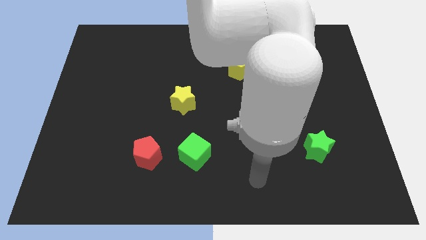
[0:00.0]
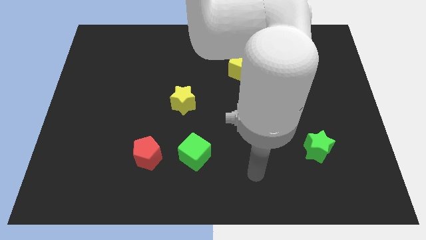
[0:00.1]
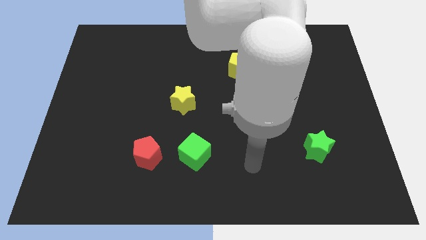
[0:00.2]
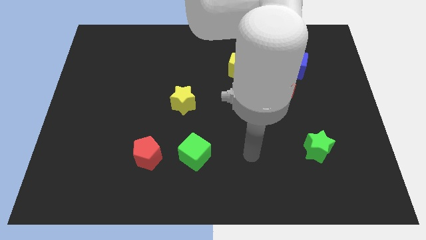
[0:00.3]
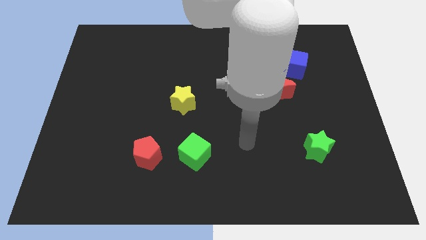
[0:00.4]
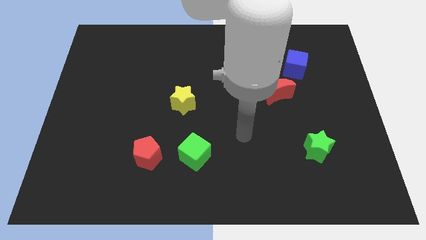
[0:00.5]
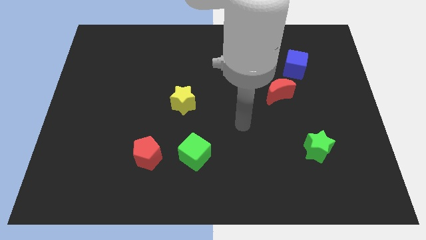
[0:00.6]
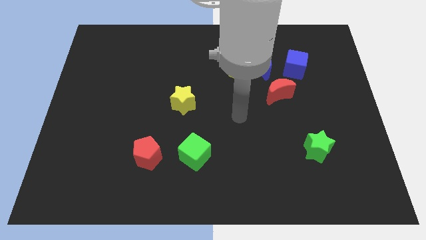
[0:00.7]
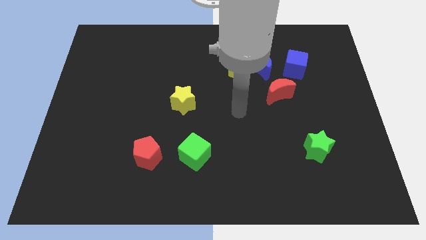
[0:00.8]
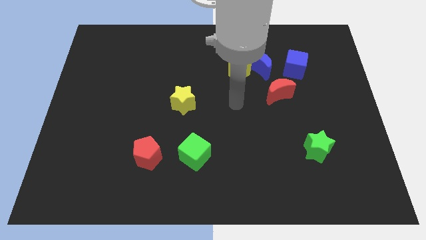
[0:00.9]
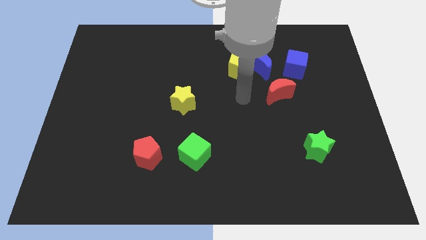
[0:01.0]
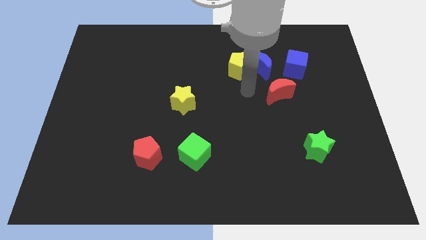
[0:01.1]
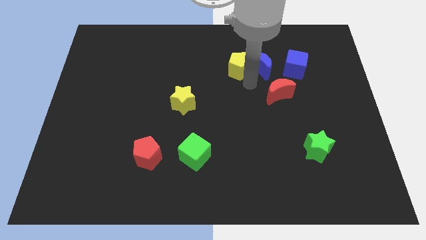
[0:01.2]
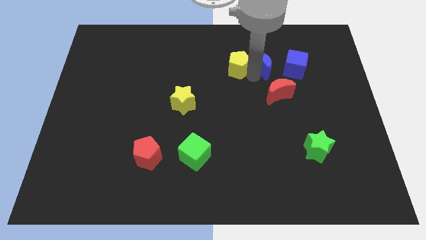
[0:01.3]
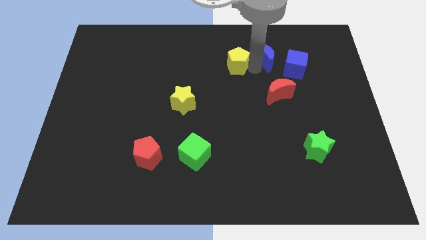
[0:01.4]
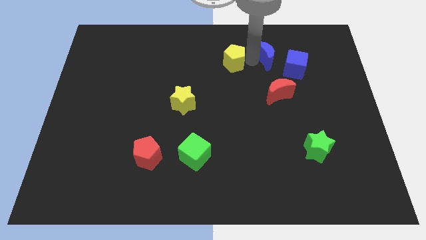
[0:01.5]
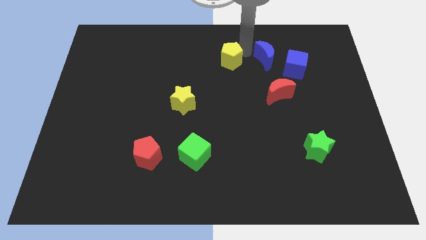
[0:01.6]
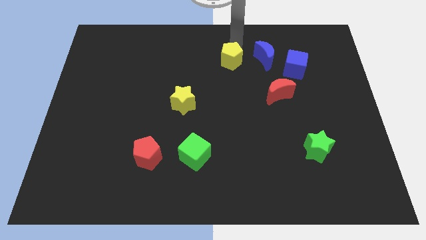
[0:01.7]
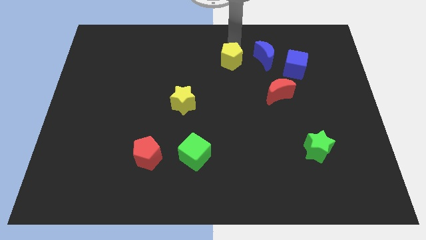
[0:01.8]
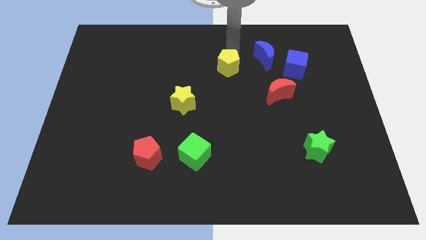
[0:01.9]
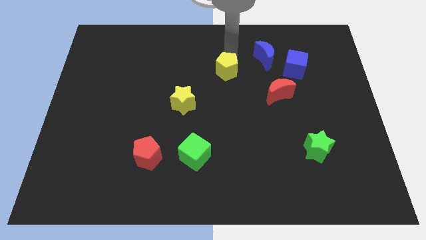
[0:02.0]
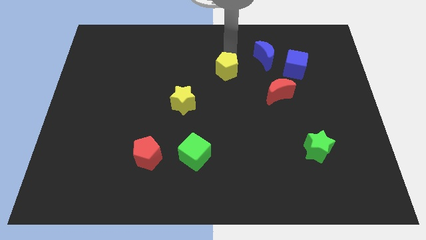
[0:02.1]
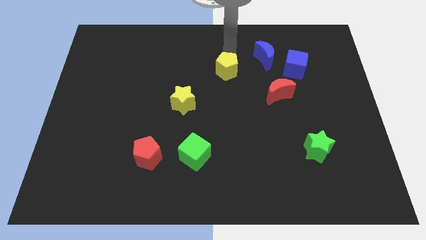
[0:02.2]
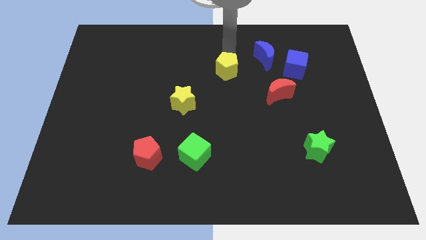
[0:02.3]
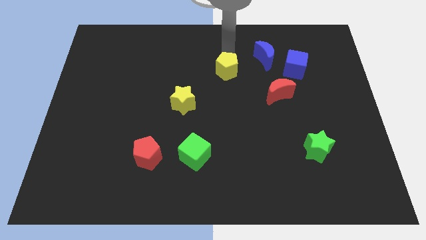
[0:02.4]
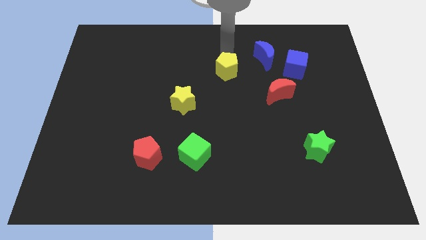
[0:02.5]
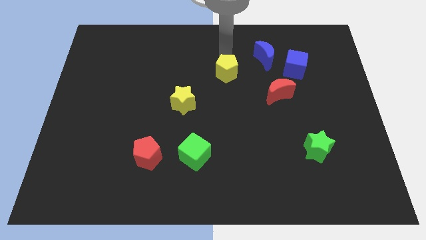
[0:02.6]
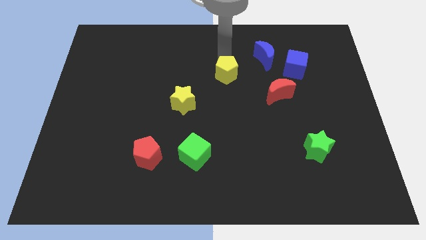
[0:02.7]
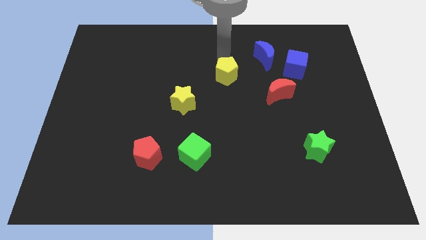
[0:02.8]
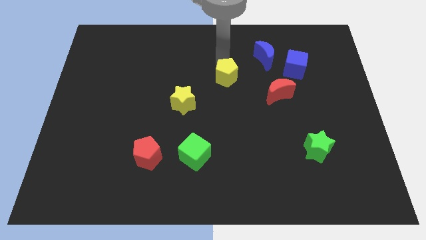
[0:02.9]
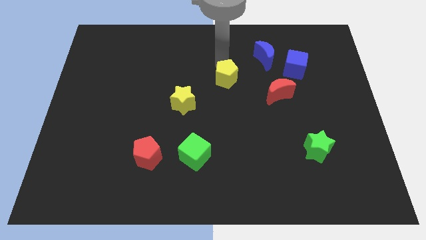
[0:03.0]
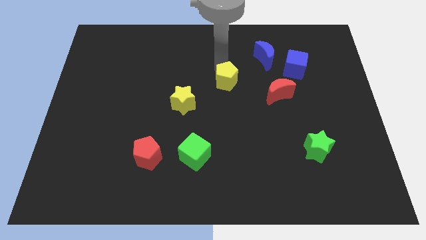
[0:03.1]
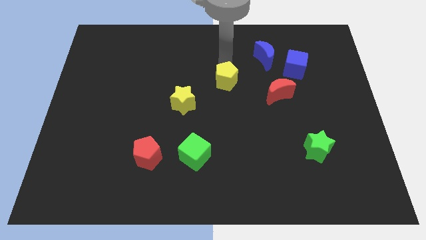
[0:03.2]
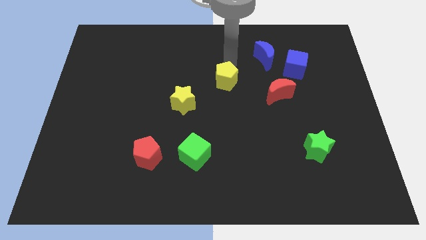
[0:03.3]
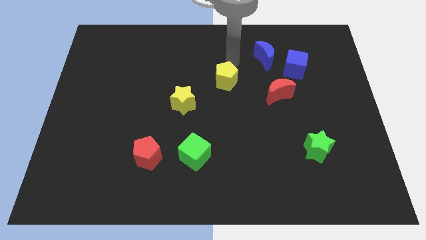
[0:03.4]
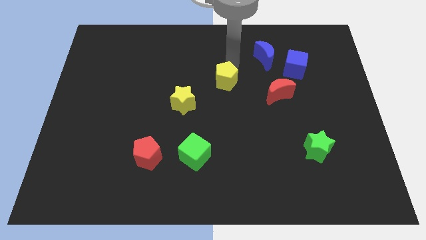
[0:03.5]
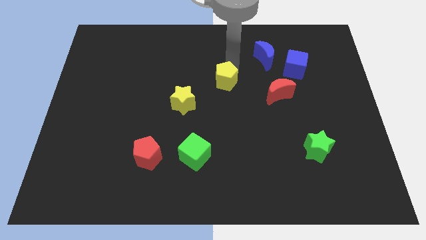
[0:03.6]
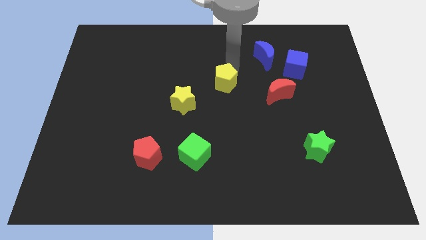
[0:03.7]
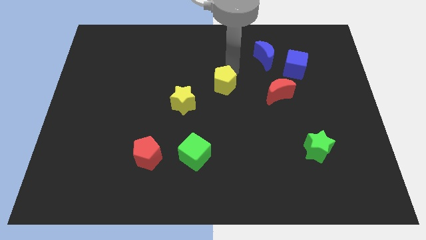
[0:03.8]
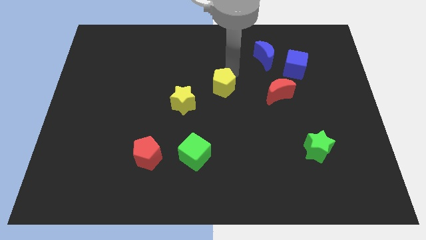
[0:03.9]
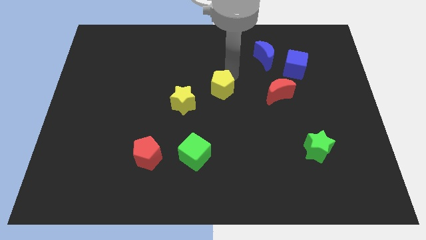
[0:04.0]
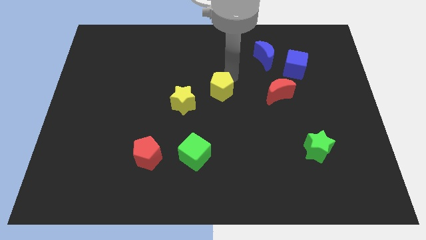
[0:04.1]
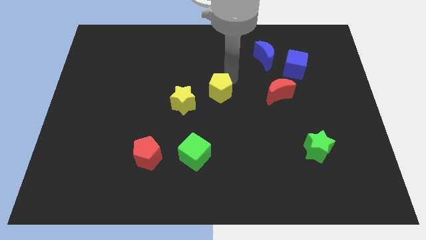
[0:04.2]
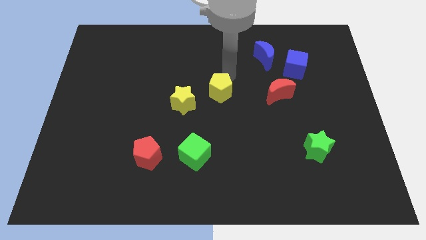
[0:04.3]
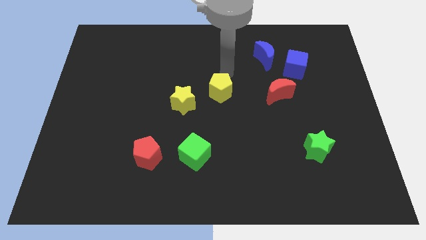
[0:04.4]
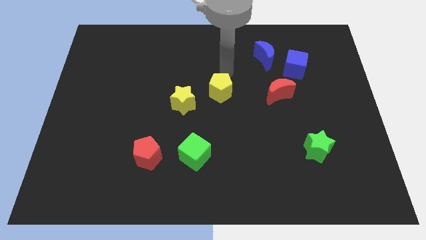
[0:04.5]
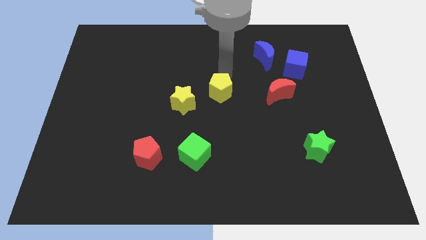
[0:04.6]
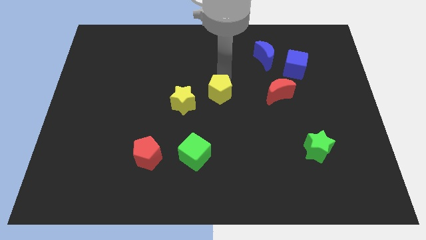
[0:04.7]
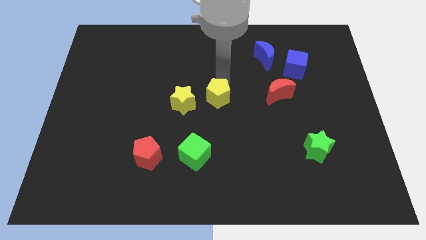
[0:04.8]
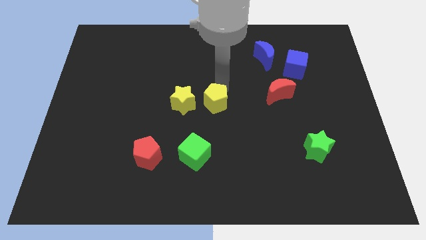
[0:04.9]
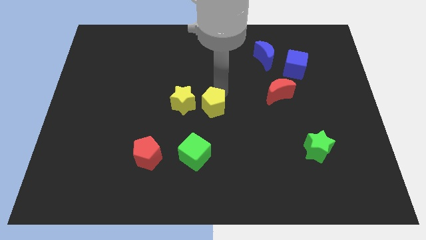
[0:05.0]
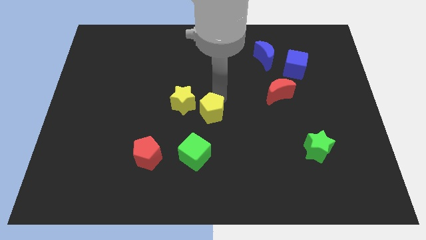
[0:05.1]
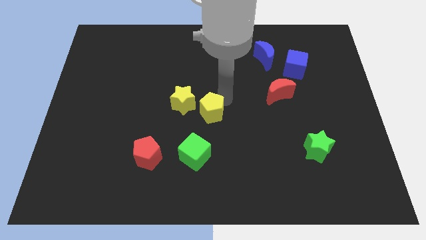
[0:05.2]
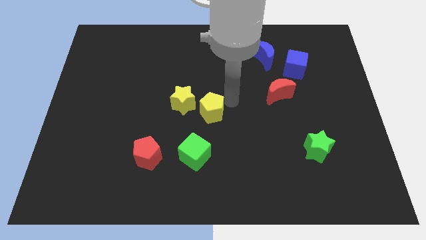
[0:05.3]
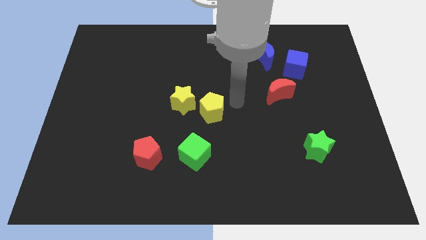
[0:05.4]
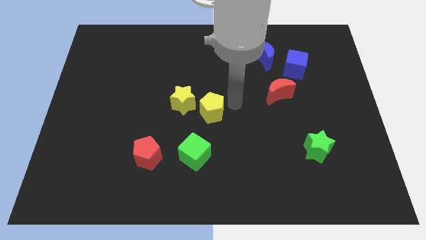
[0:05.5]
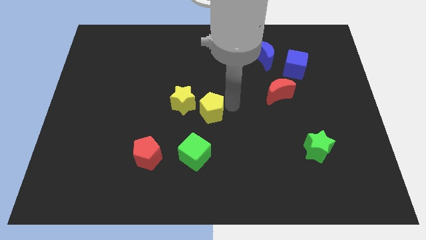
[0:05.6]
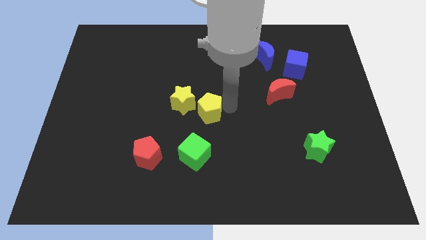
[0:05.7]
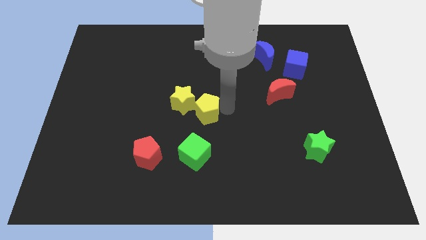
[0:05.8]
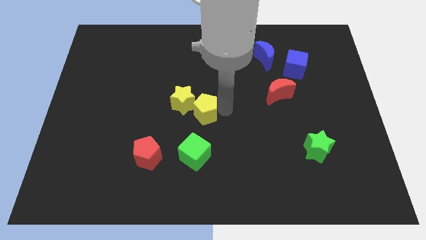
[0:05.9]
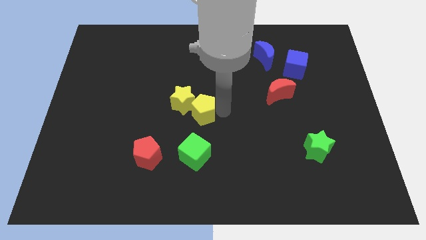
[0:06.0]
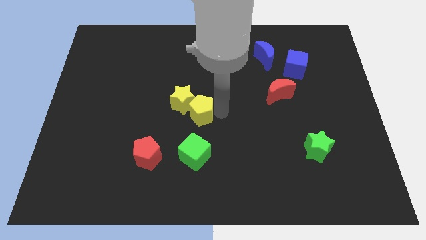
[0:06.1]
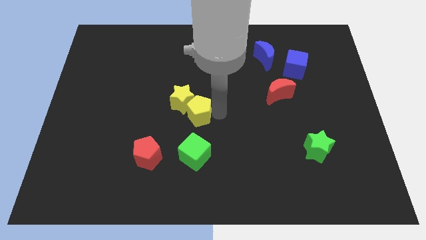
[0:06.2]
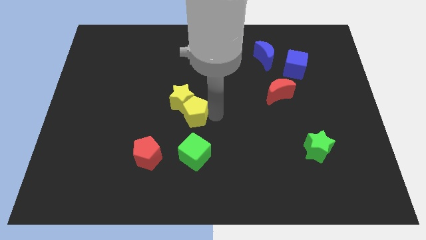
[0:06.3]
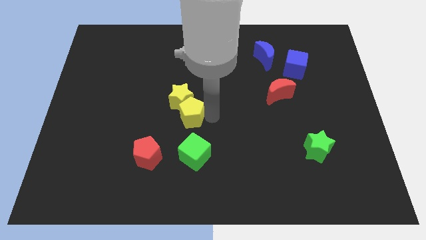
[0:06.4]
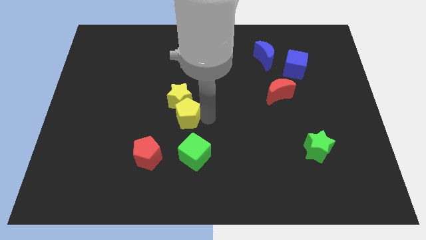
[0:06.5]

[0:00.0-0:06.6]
slide the yellow pentagon to the bottom left side of the yellow star

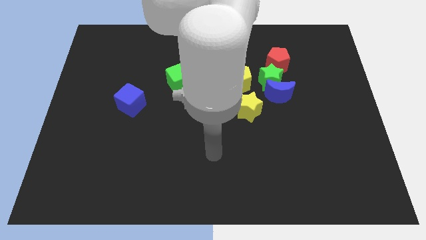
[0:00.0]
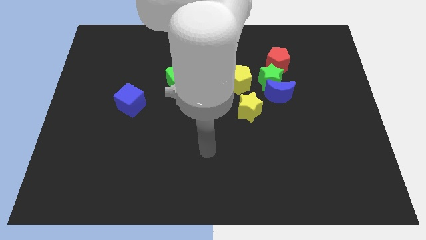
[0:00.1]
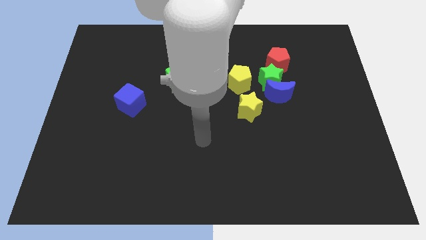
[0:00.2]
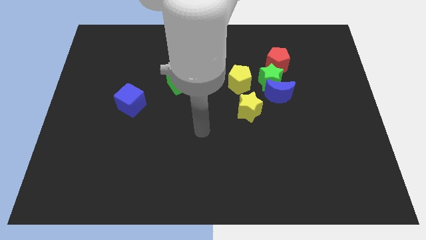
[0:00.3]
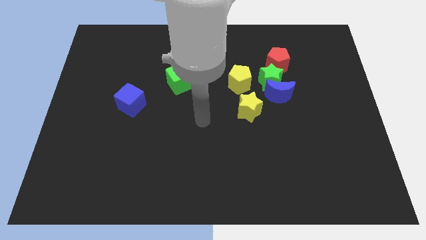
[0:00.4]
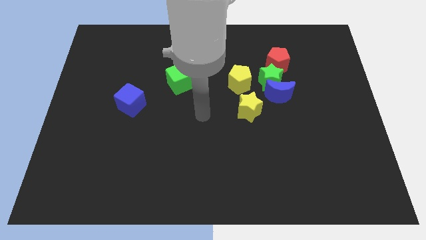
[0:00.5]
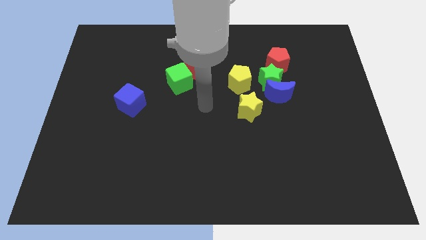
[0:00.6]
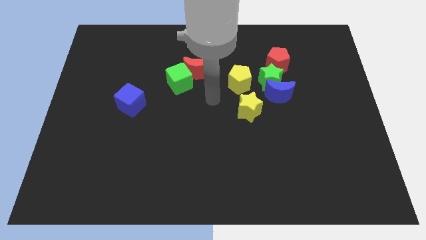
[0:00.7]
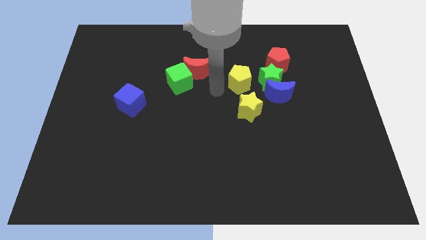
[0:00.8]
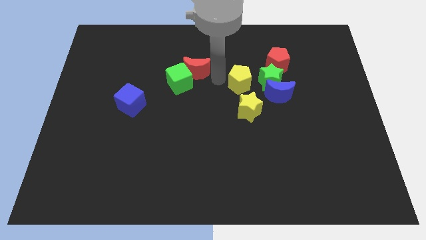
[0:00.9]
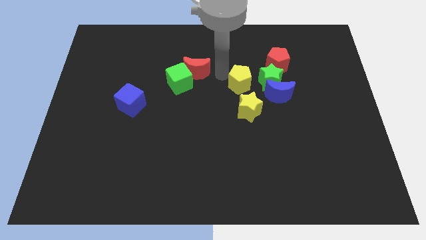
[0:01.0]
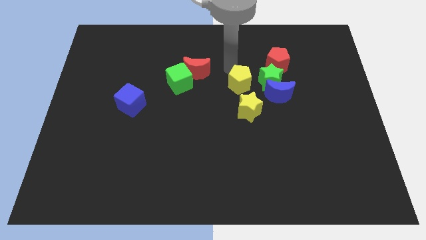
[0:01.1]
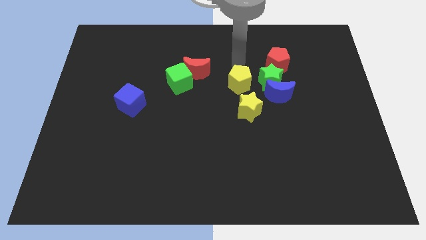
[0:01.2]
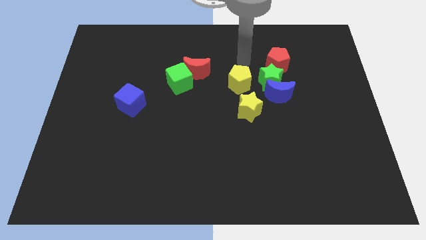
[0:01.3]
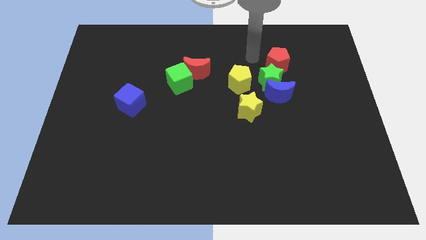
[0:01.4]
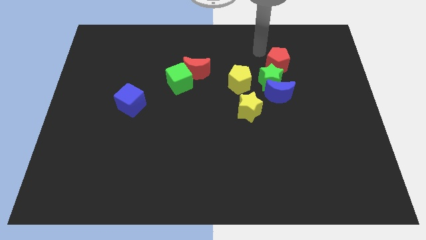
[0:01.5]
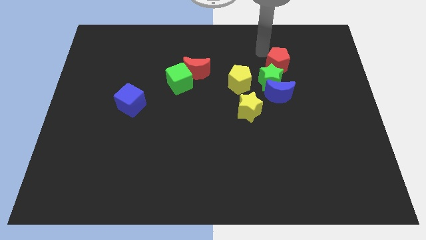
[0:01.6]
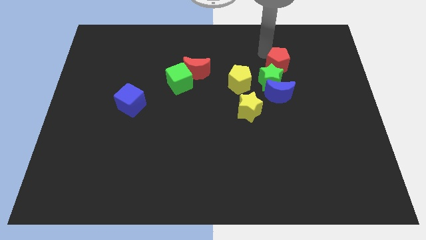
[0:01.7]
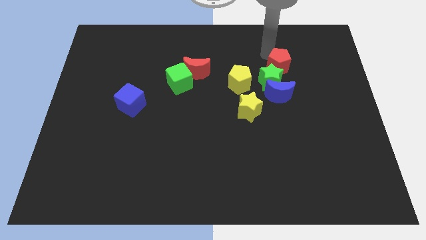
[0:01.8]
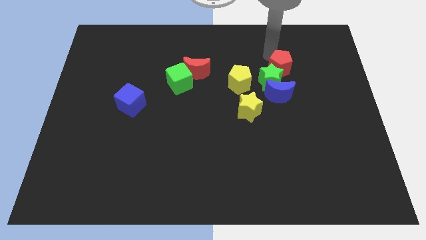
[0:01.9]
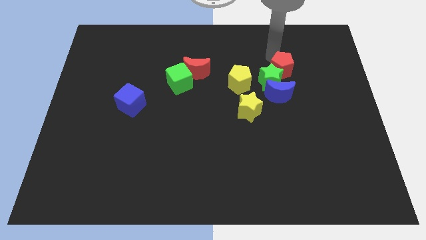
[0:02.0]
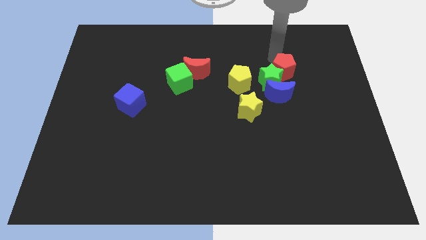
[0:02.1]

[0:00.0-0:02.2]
push the red pentagon to the top right side of the blue moon
